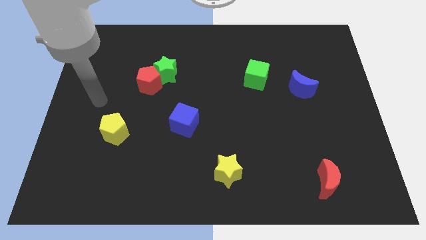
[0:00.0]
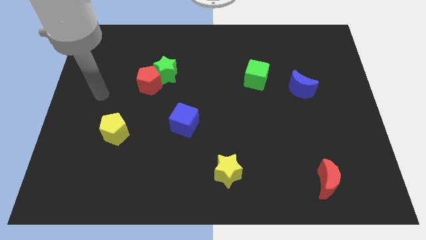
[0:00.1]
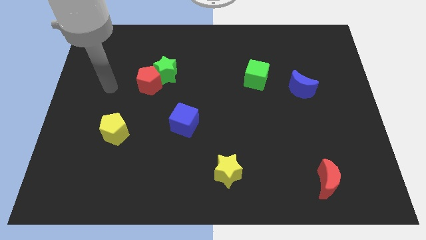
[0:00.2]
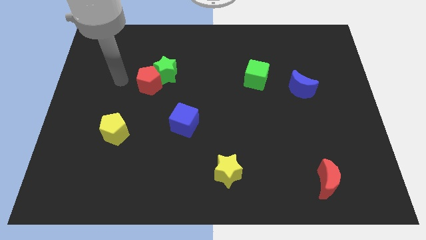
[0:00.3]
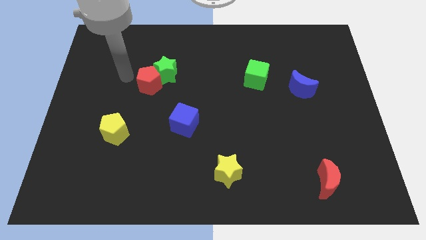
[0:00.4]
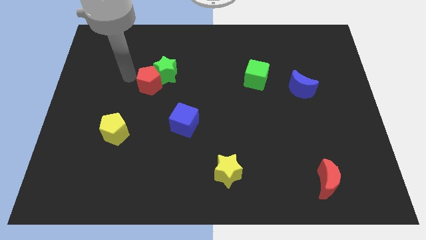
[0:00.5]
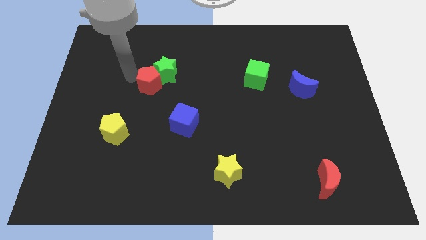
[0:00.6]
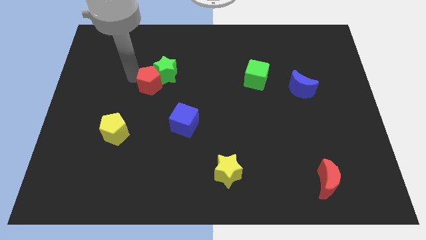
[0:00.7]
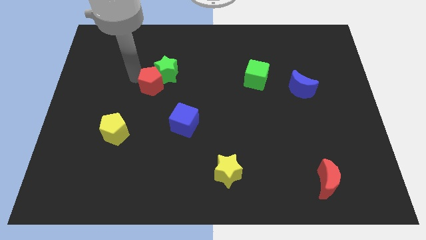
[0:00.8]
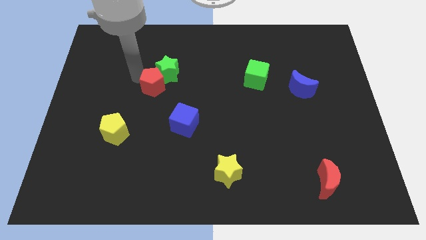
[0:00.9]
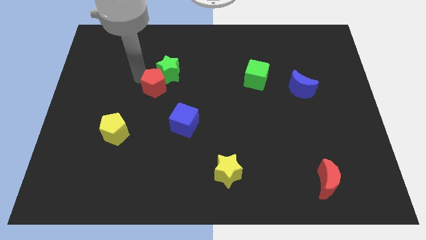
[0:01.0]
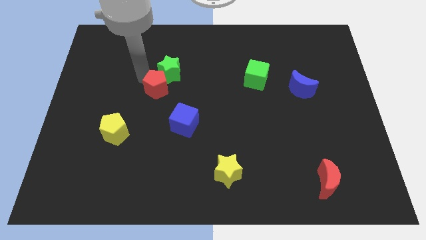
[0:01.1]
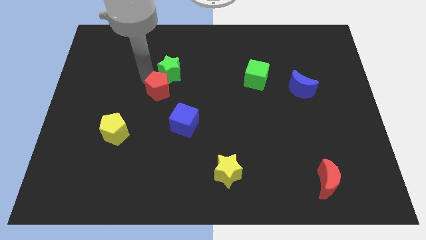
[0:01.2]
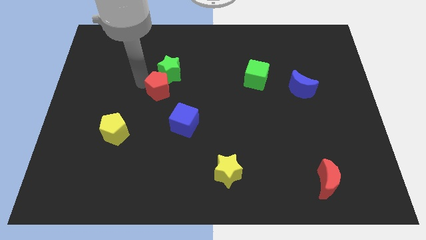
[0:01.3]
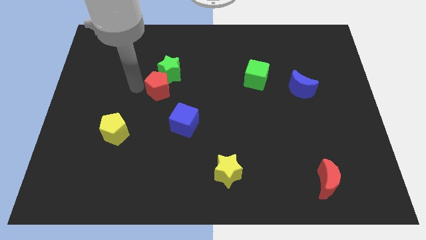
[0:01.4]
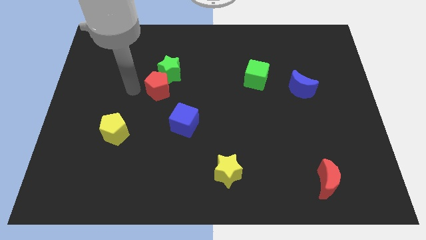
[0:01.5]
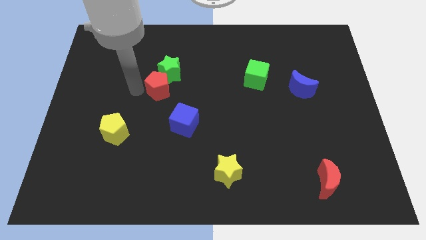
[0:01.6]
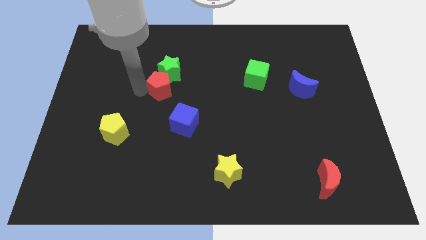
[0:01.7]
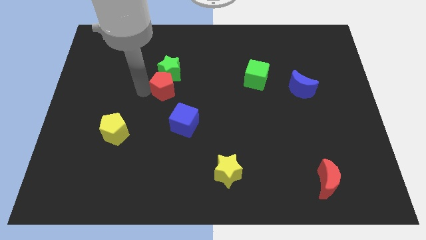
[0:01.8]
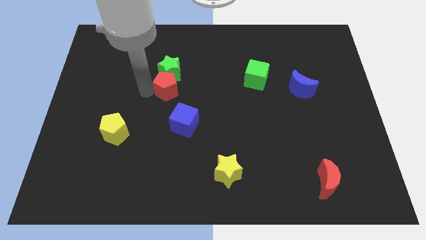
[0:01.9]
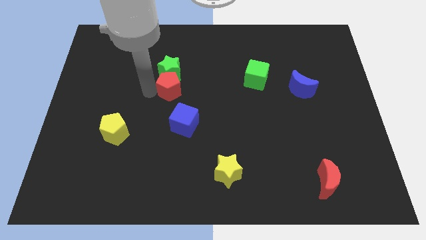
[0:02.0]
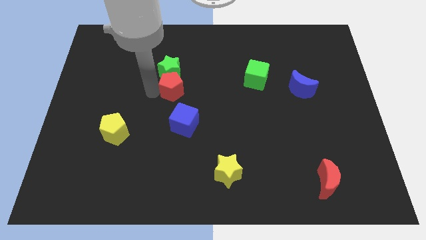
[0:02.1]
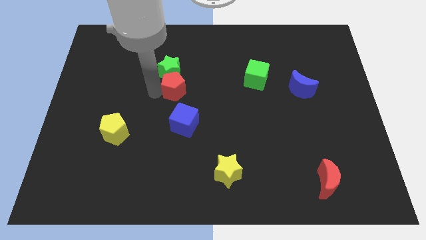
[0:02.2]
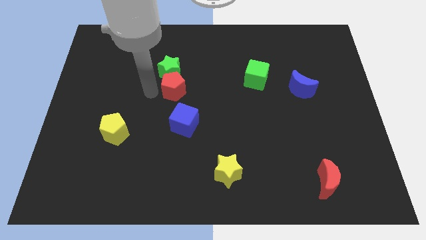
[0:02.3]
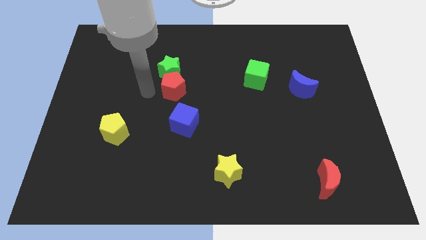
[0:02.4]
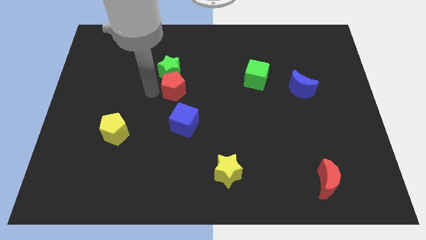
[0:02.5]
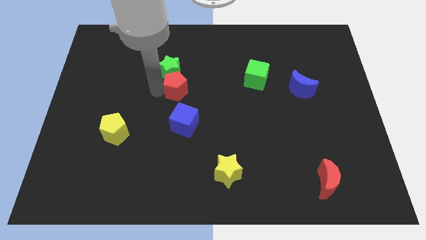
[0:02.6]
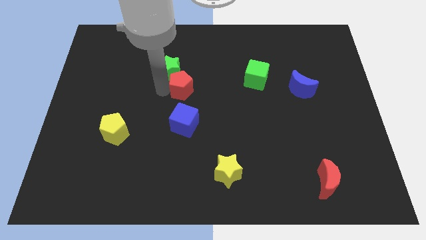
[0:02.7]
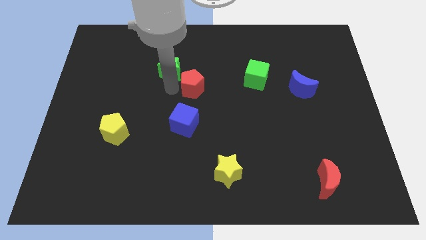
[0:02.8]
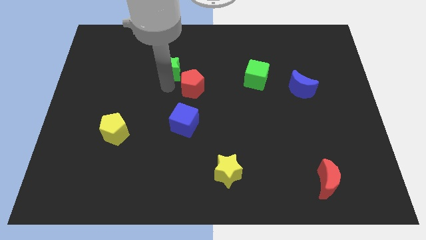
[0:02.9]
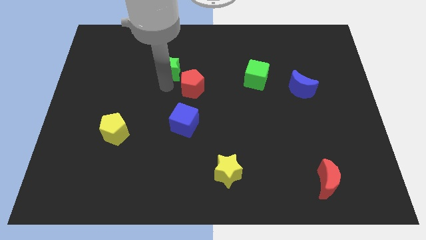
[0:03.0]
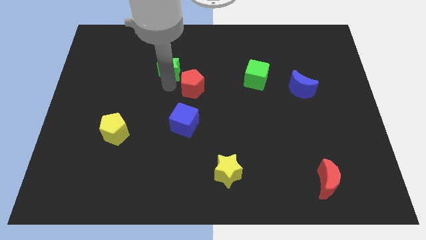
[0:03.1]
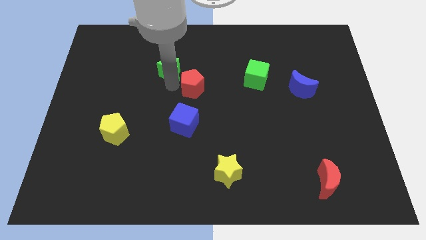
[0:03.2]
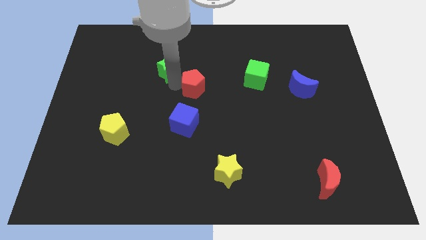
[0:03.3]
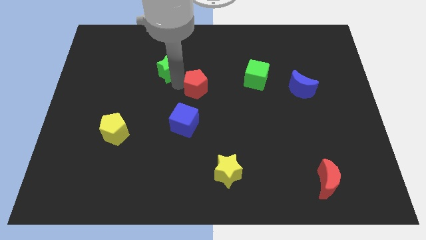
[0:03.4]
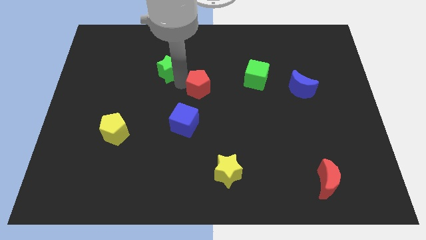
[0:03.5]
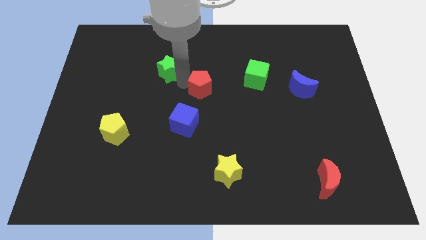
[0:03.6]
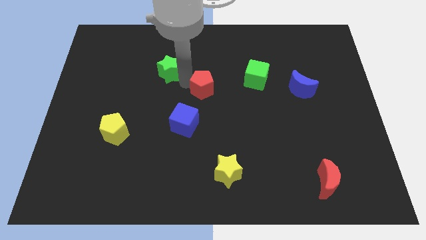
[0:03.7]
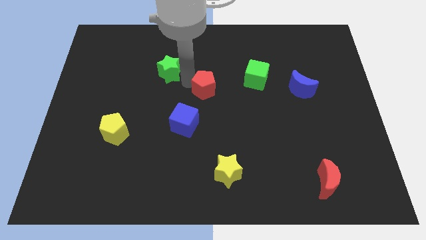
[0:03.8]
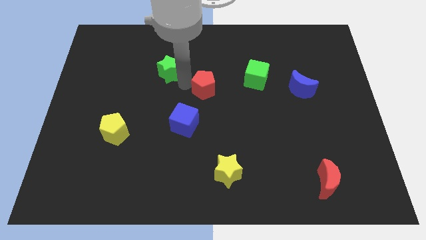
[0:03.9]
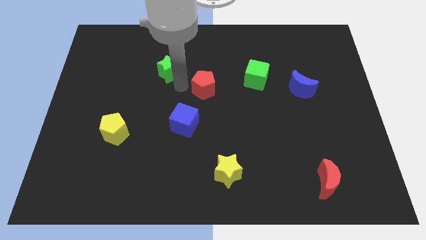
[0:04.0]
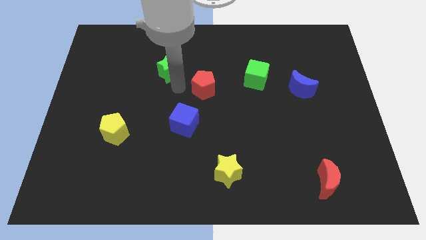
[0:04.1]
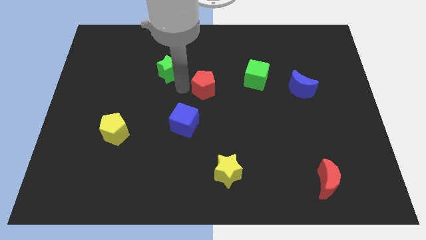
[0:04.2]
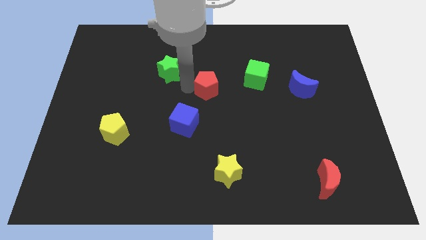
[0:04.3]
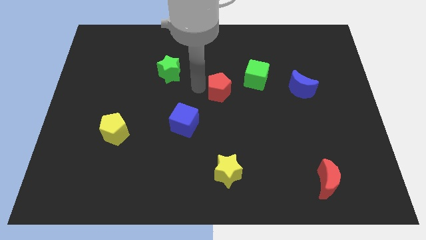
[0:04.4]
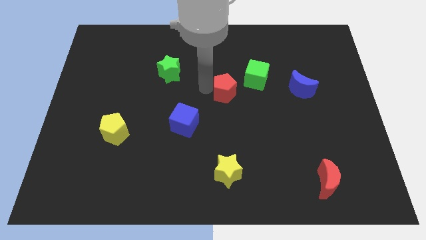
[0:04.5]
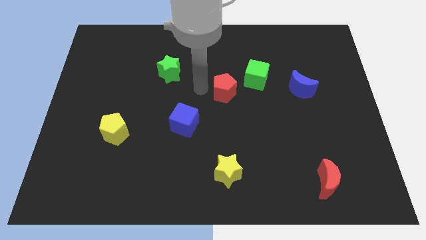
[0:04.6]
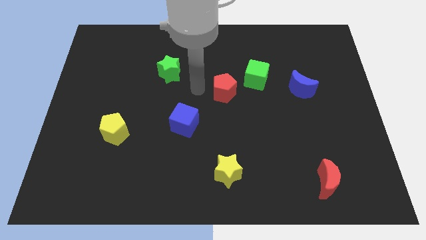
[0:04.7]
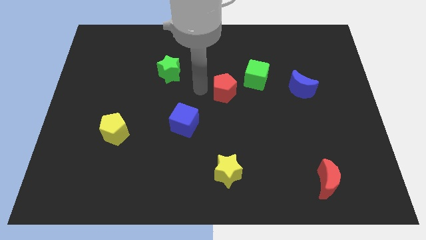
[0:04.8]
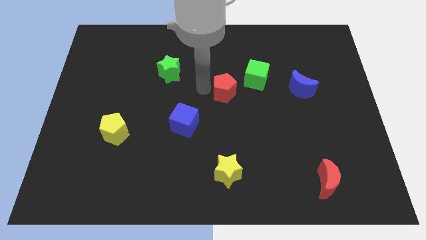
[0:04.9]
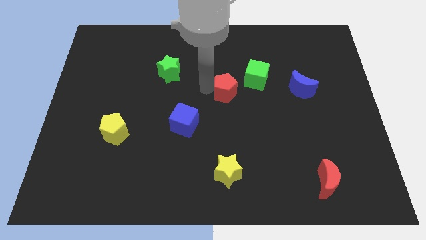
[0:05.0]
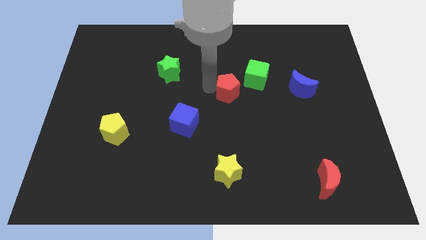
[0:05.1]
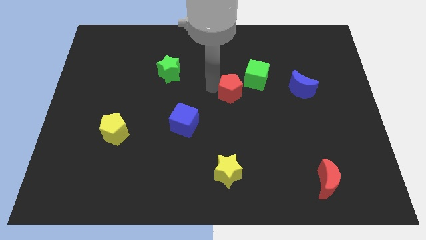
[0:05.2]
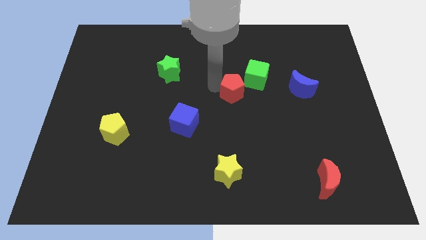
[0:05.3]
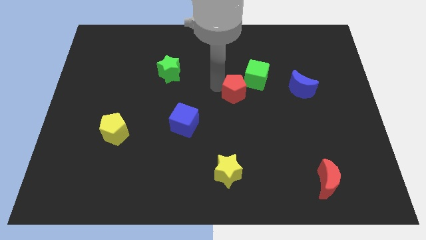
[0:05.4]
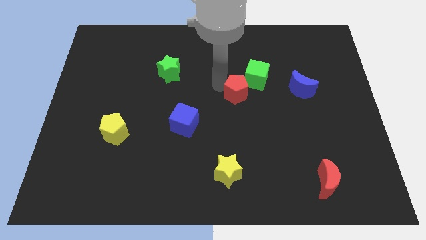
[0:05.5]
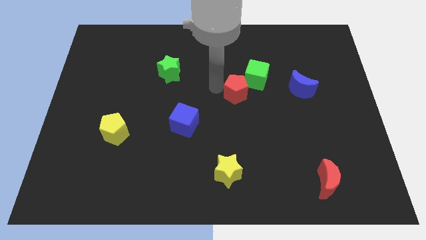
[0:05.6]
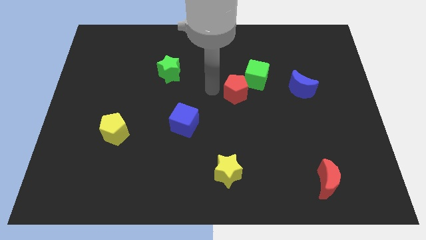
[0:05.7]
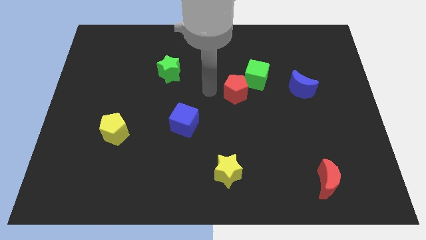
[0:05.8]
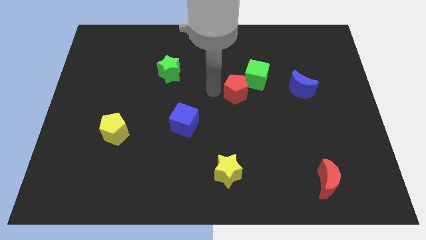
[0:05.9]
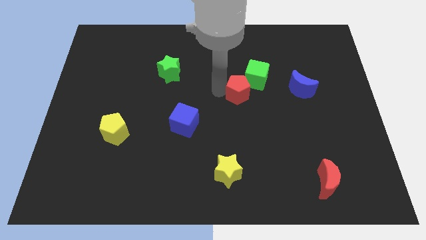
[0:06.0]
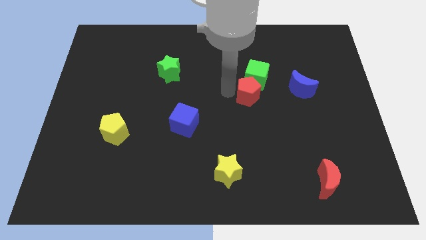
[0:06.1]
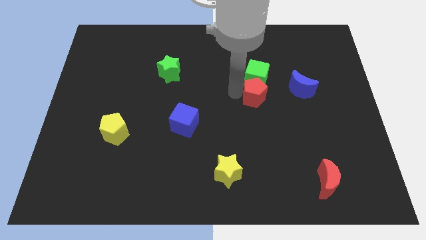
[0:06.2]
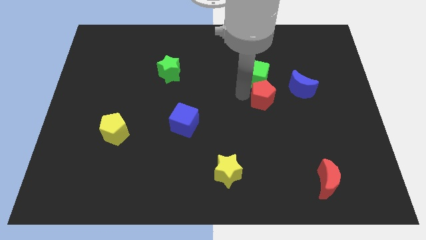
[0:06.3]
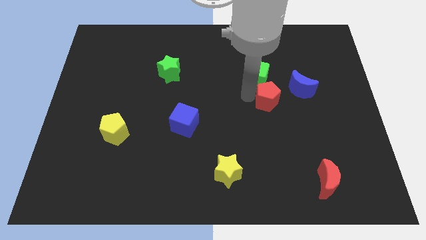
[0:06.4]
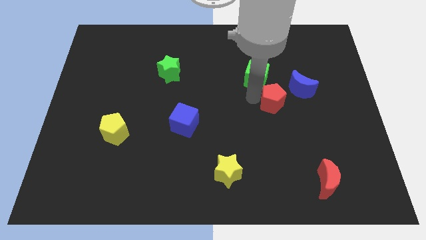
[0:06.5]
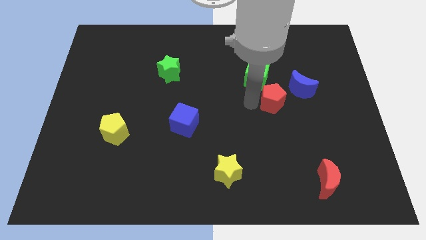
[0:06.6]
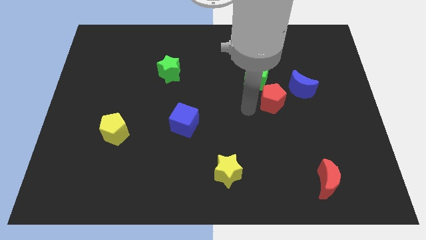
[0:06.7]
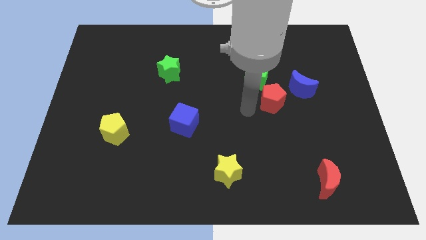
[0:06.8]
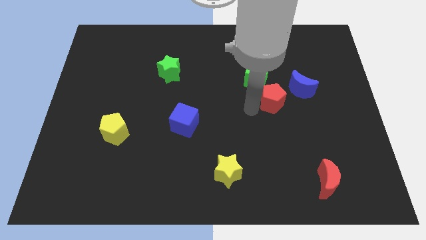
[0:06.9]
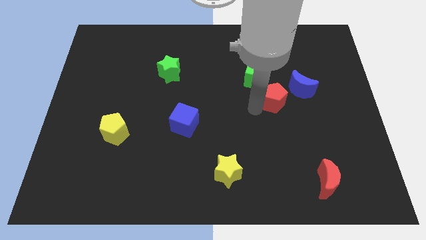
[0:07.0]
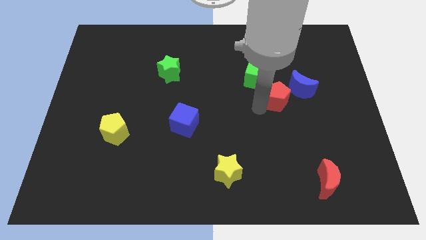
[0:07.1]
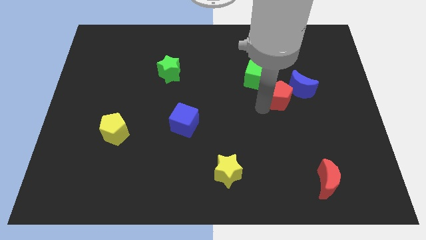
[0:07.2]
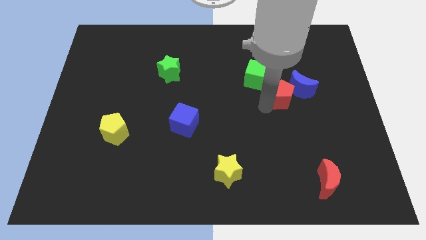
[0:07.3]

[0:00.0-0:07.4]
put the red pentagon close to the blue moon
